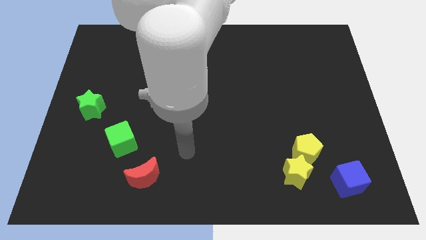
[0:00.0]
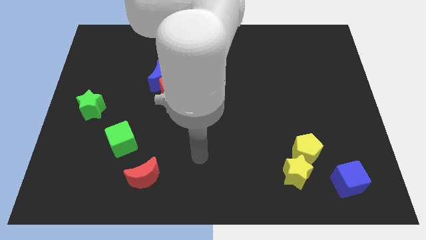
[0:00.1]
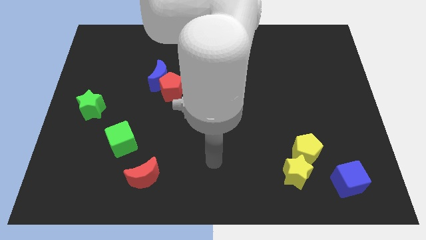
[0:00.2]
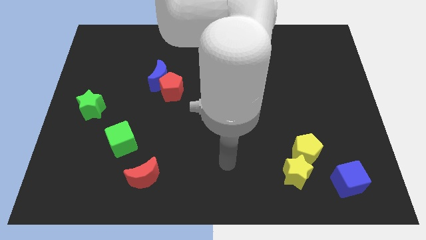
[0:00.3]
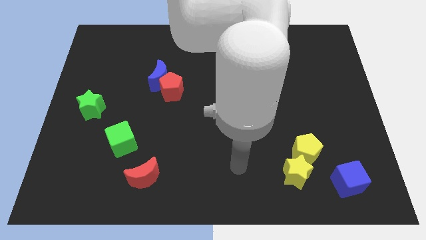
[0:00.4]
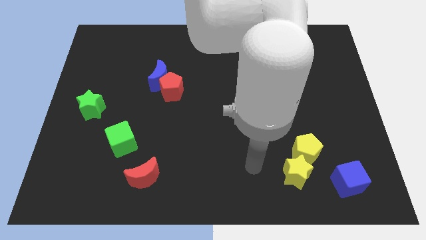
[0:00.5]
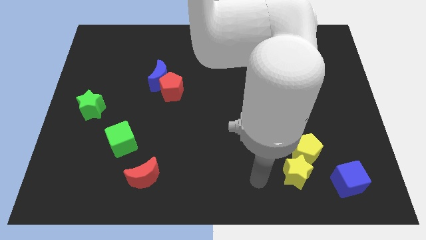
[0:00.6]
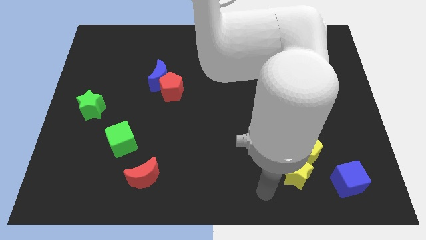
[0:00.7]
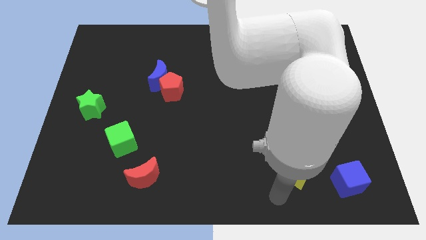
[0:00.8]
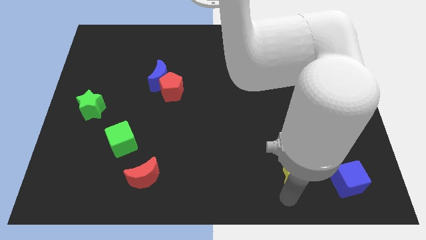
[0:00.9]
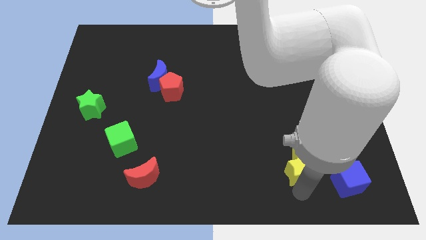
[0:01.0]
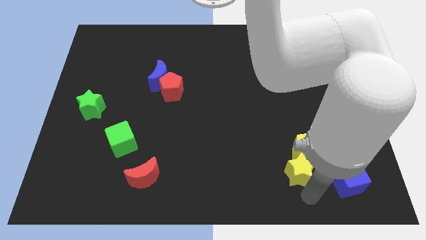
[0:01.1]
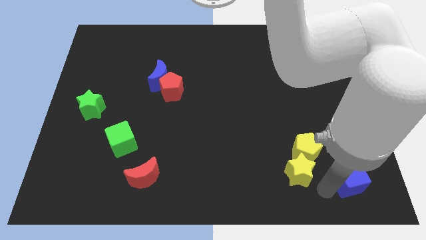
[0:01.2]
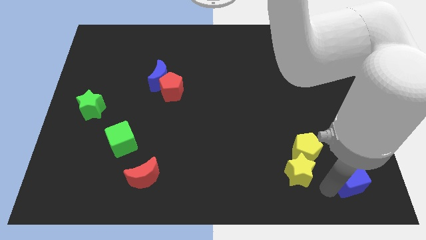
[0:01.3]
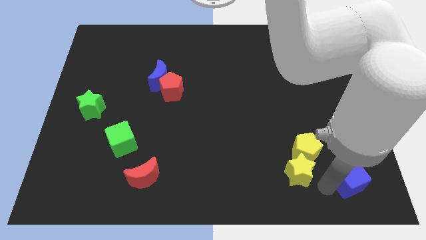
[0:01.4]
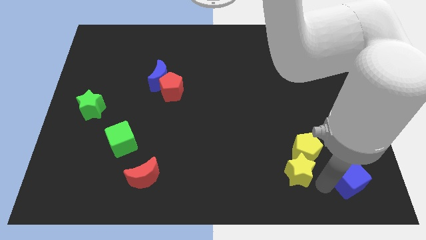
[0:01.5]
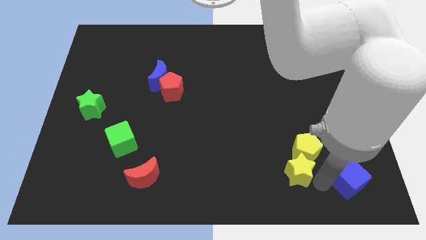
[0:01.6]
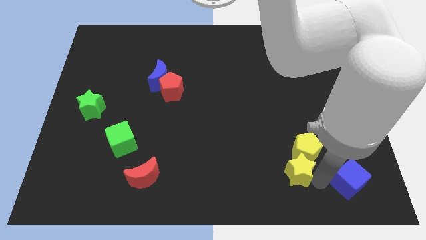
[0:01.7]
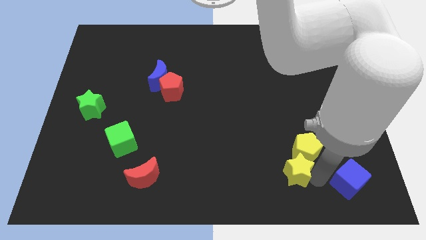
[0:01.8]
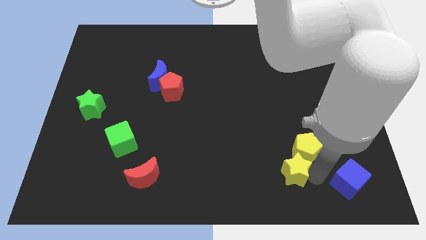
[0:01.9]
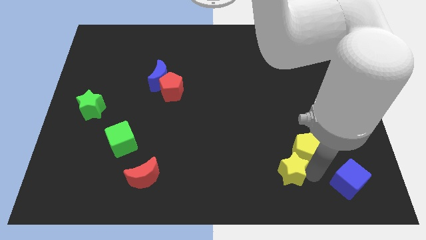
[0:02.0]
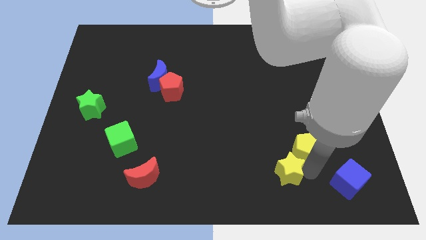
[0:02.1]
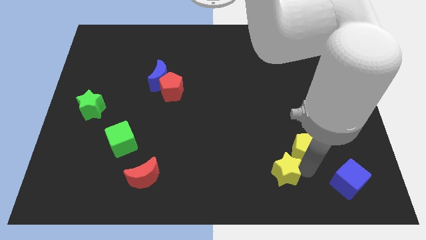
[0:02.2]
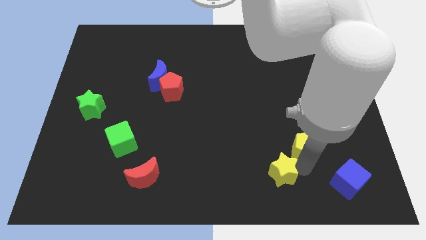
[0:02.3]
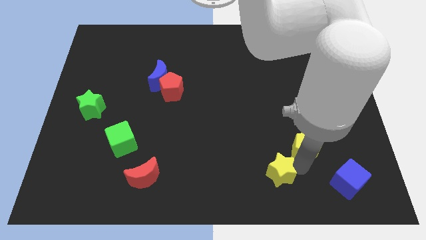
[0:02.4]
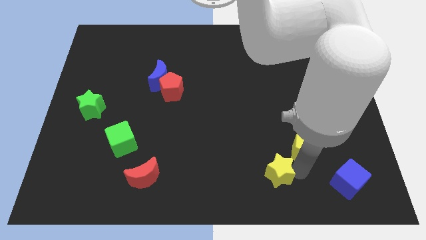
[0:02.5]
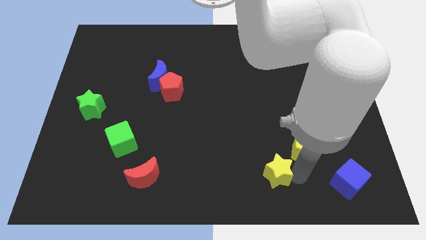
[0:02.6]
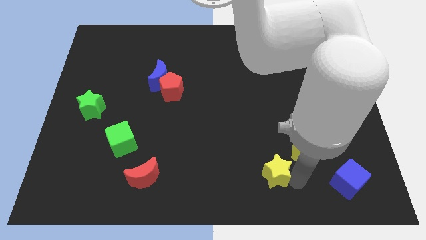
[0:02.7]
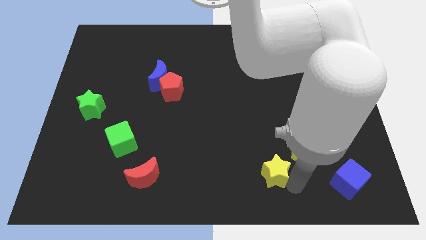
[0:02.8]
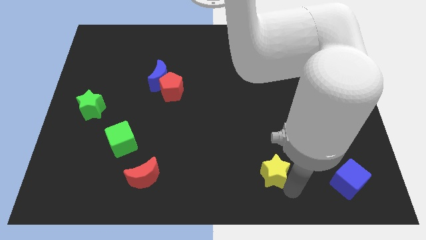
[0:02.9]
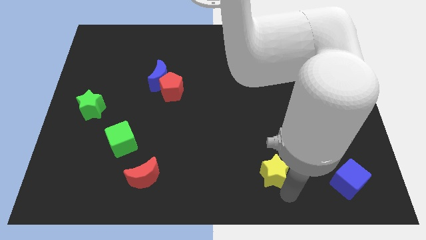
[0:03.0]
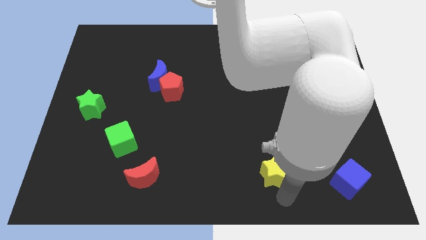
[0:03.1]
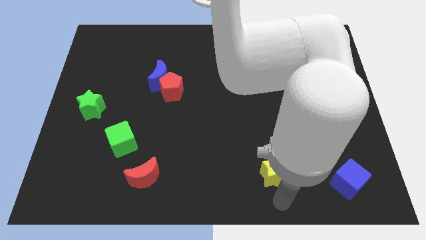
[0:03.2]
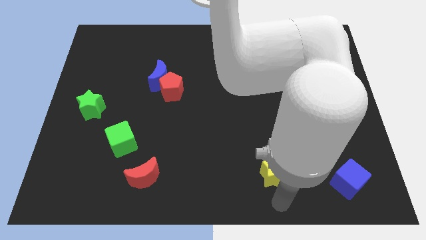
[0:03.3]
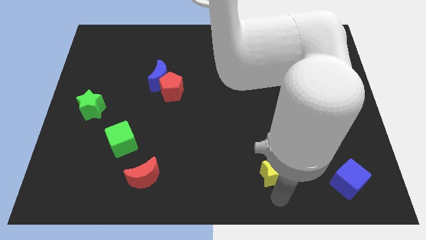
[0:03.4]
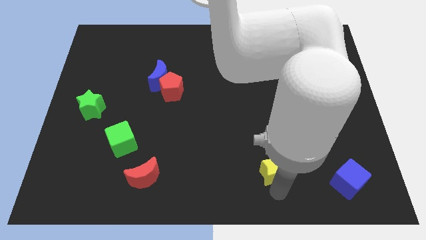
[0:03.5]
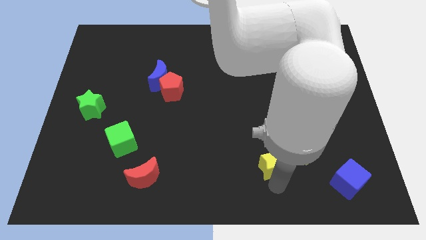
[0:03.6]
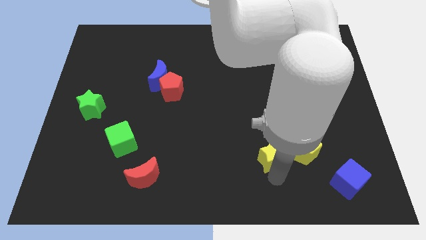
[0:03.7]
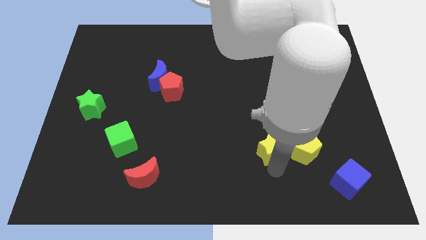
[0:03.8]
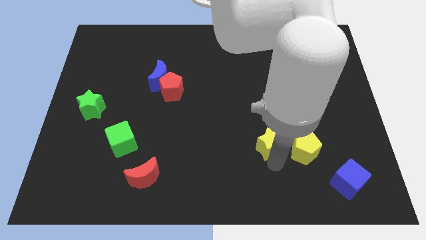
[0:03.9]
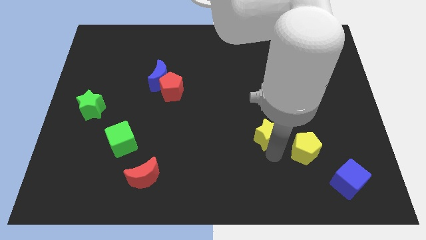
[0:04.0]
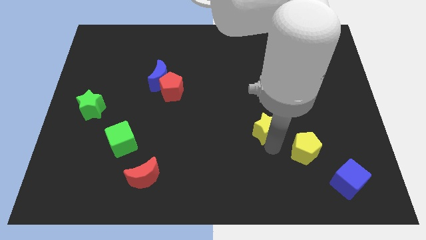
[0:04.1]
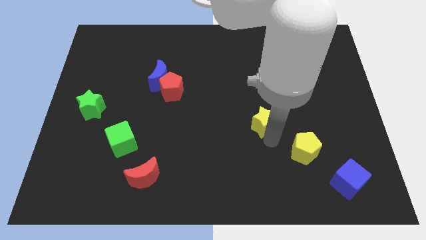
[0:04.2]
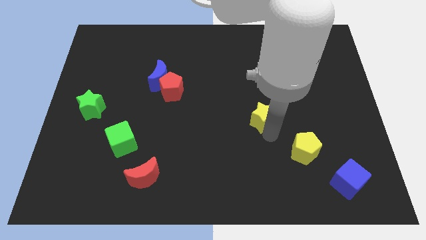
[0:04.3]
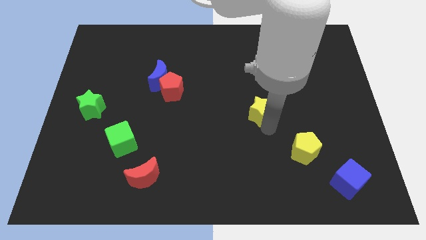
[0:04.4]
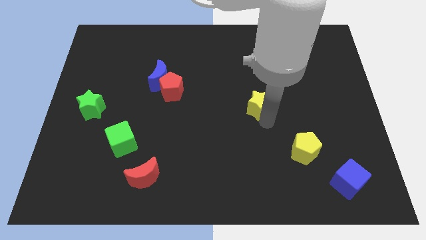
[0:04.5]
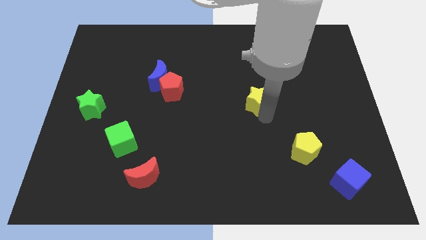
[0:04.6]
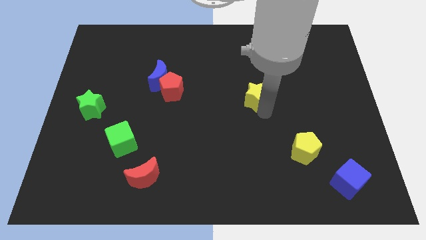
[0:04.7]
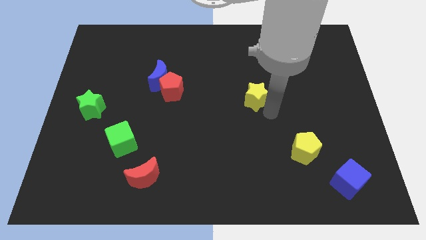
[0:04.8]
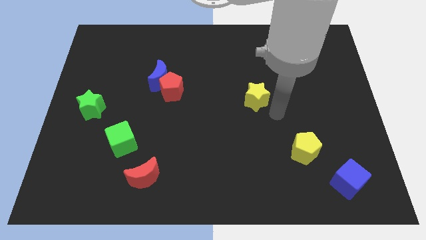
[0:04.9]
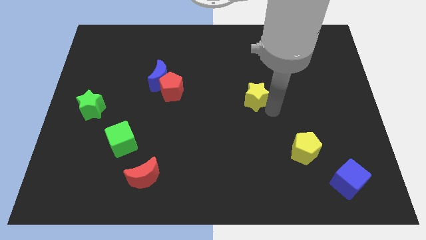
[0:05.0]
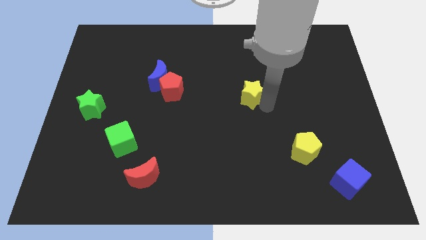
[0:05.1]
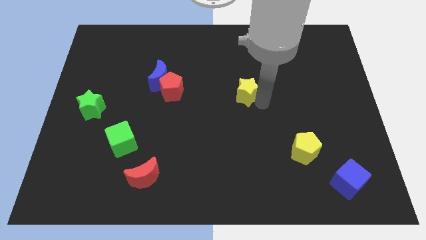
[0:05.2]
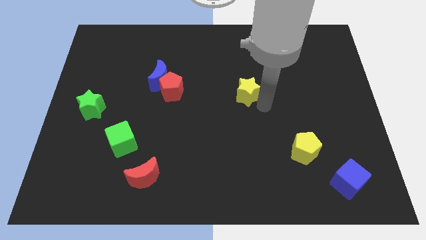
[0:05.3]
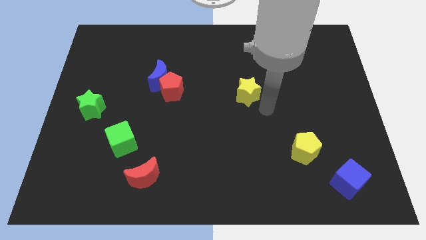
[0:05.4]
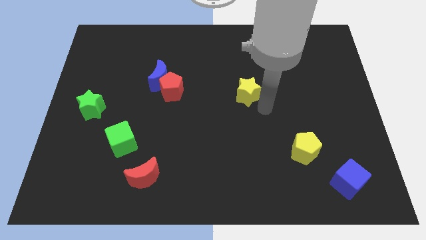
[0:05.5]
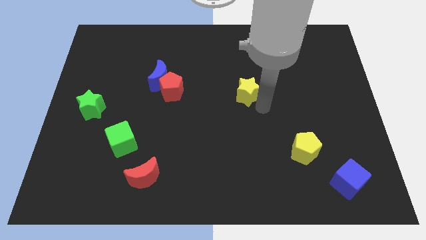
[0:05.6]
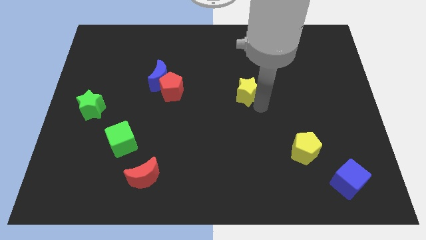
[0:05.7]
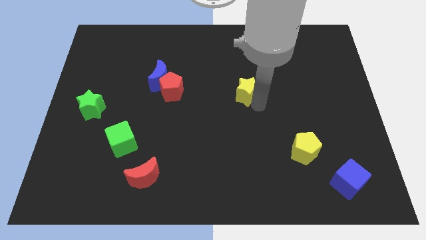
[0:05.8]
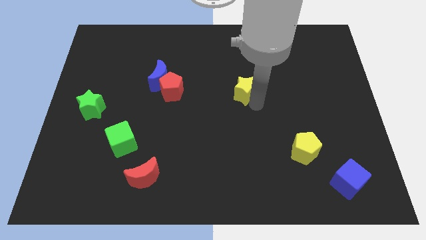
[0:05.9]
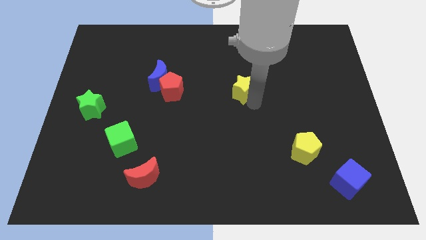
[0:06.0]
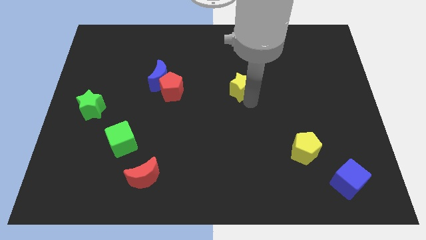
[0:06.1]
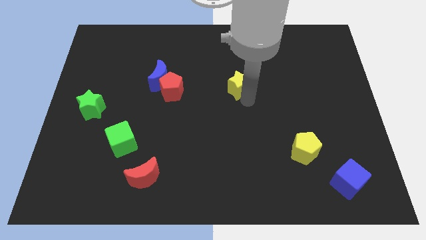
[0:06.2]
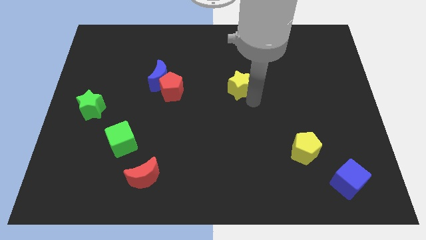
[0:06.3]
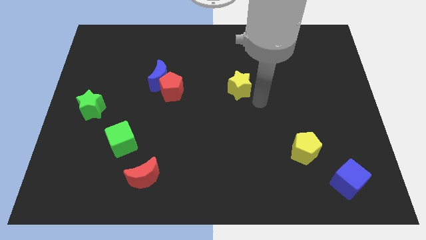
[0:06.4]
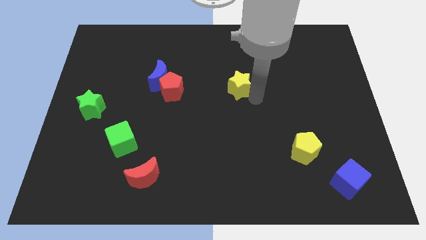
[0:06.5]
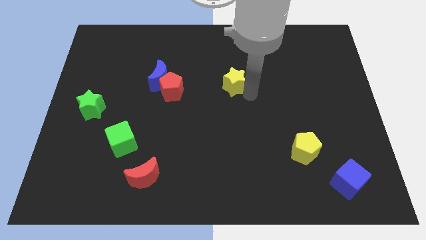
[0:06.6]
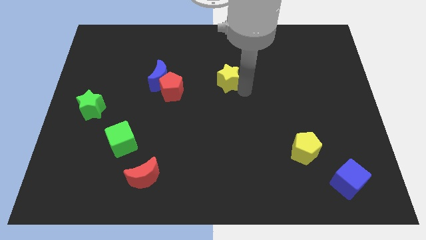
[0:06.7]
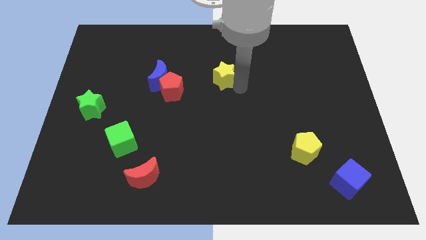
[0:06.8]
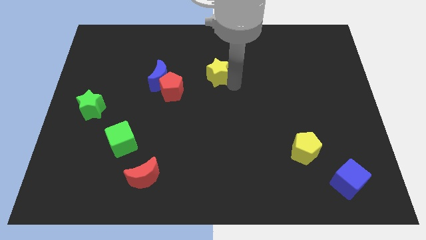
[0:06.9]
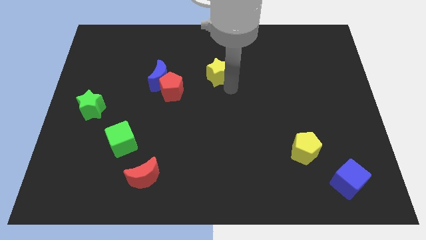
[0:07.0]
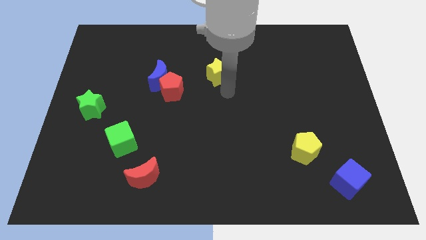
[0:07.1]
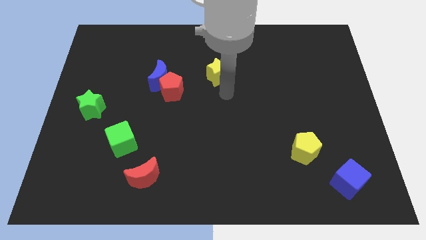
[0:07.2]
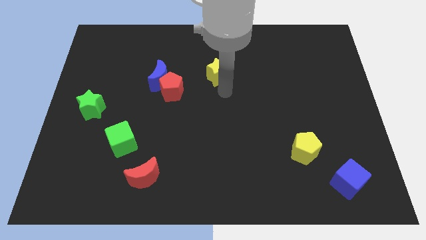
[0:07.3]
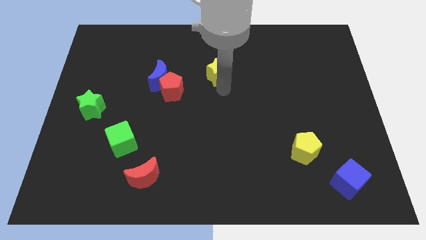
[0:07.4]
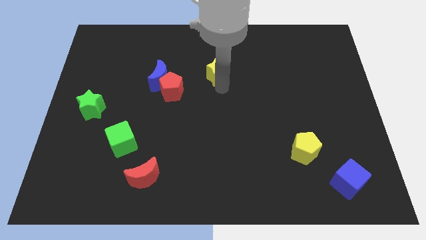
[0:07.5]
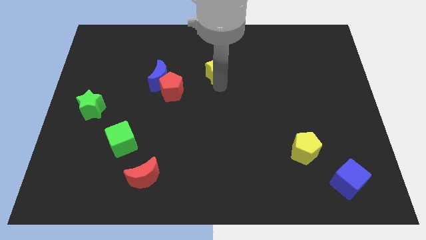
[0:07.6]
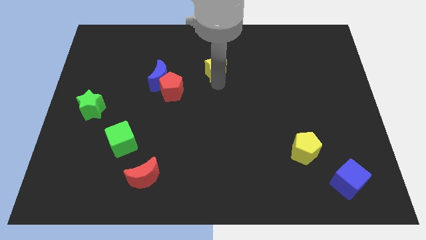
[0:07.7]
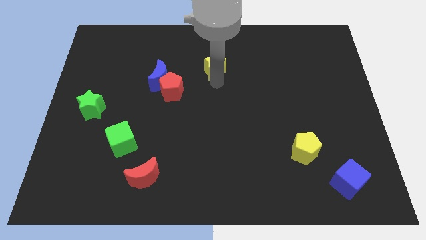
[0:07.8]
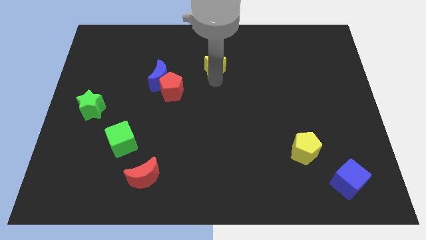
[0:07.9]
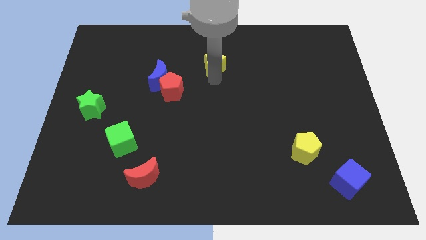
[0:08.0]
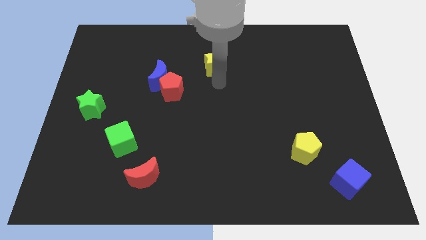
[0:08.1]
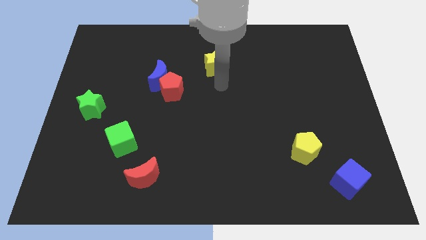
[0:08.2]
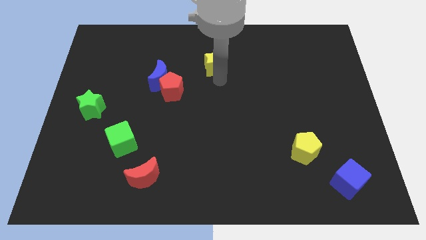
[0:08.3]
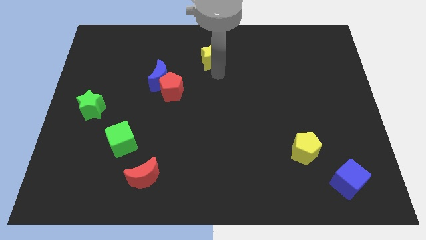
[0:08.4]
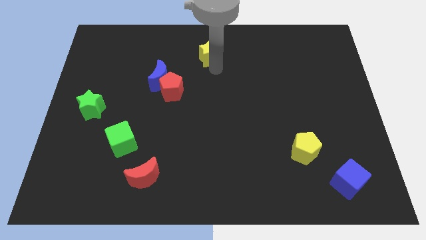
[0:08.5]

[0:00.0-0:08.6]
put the yellow star to the top side
